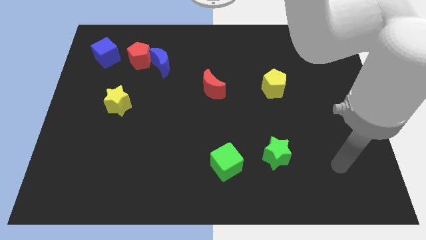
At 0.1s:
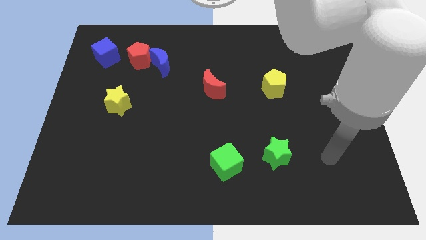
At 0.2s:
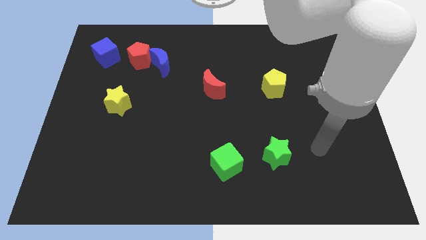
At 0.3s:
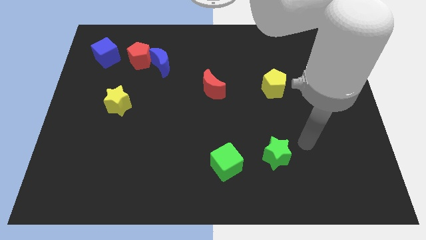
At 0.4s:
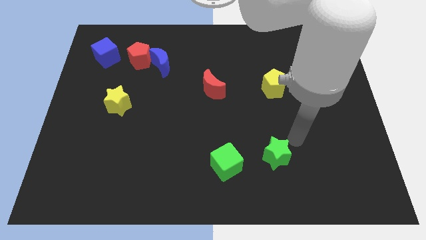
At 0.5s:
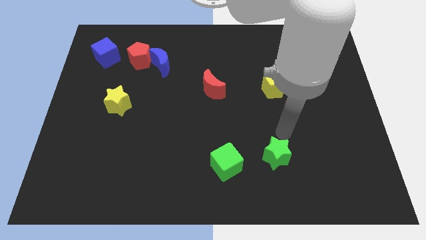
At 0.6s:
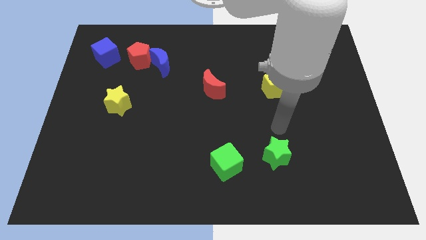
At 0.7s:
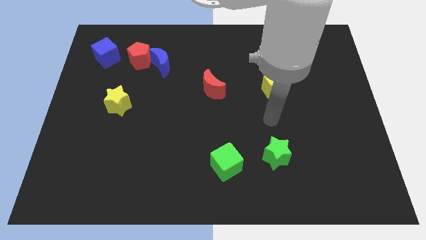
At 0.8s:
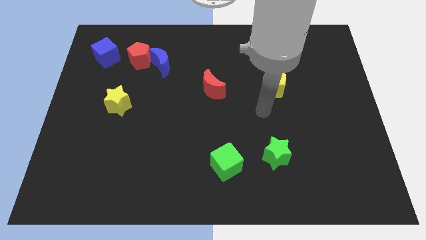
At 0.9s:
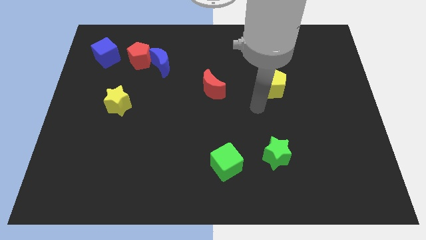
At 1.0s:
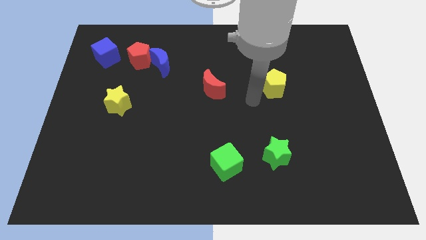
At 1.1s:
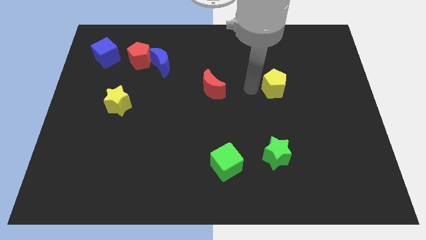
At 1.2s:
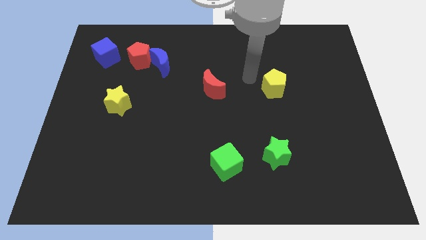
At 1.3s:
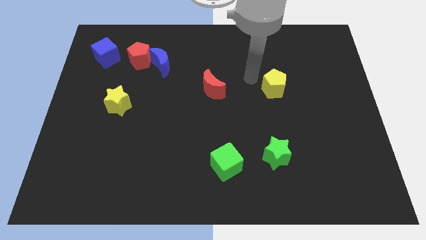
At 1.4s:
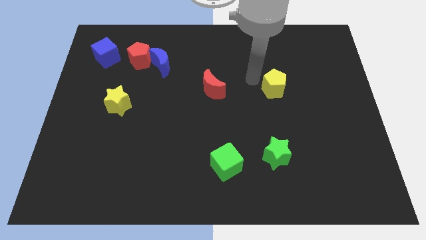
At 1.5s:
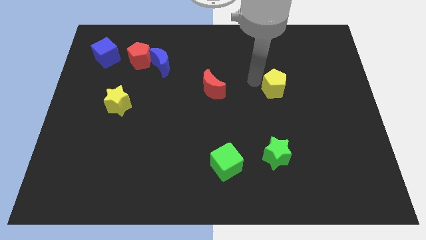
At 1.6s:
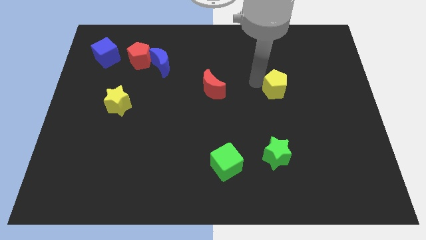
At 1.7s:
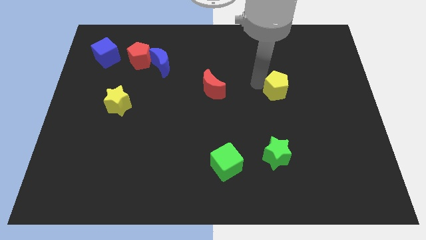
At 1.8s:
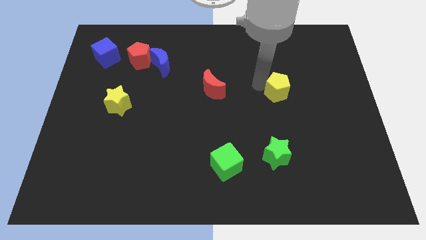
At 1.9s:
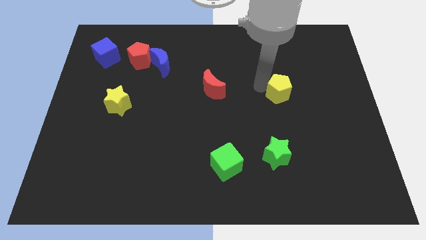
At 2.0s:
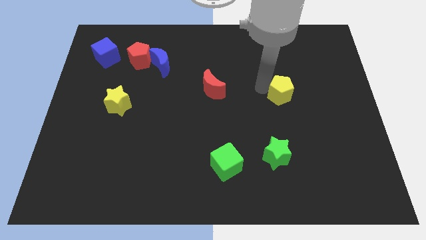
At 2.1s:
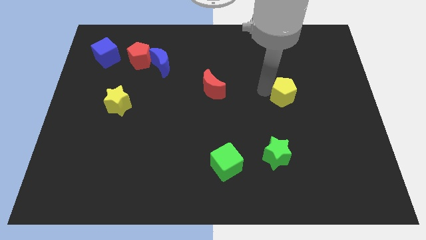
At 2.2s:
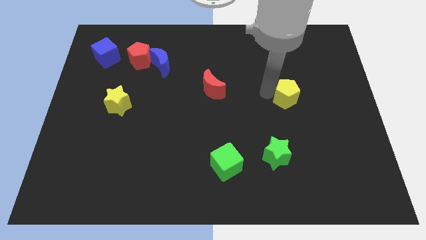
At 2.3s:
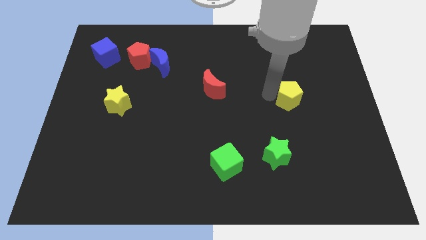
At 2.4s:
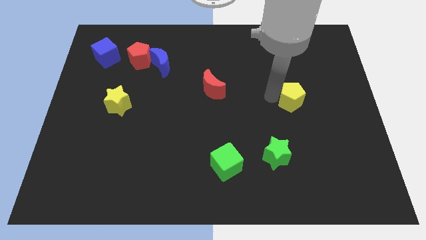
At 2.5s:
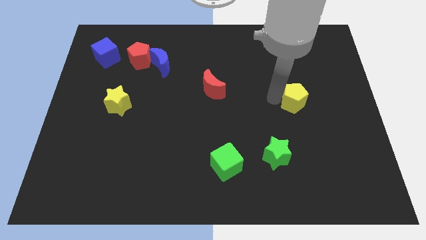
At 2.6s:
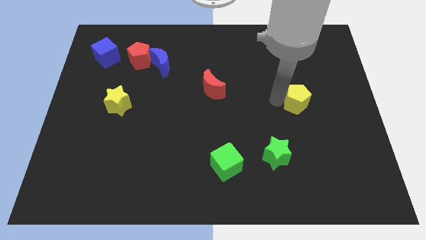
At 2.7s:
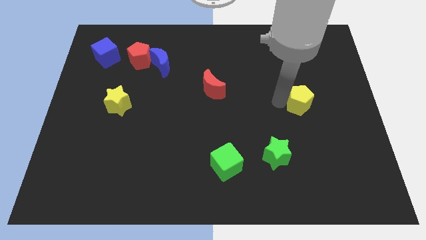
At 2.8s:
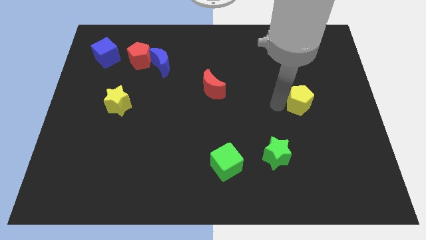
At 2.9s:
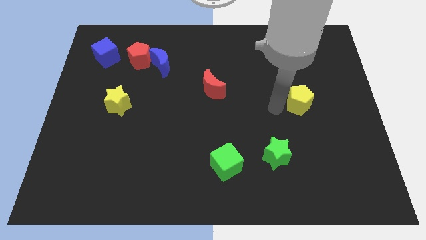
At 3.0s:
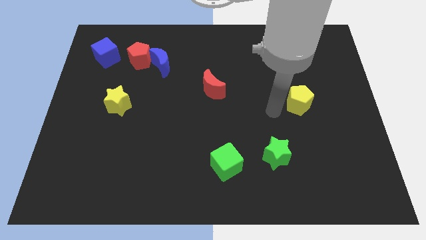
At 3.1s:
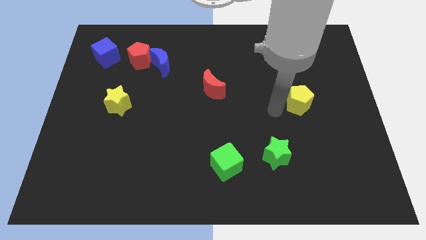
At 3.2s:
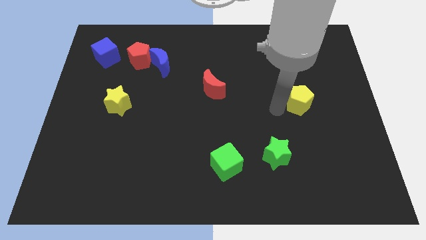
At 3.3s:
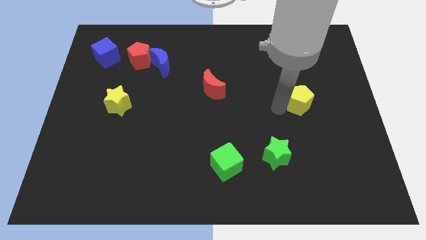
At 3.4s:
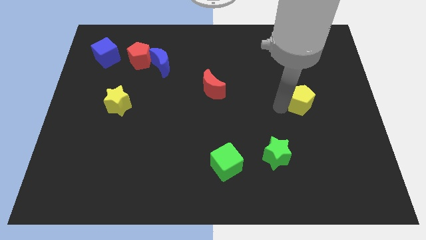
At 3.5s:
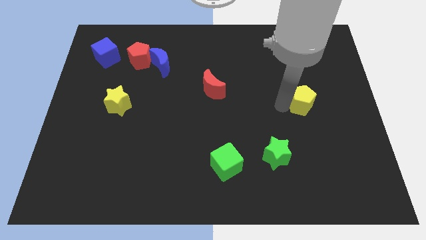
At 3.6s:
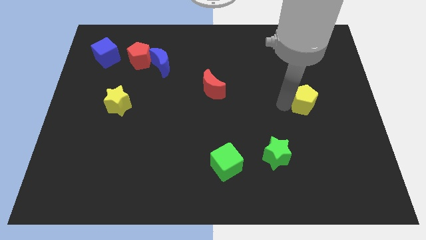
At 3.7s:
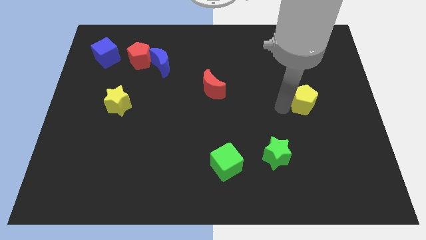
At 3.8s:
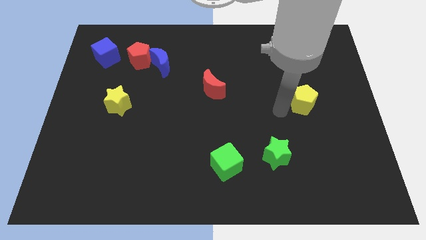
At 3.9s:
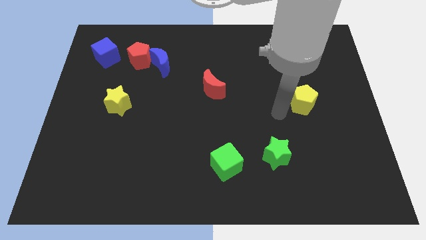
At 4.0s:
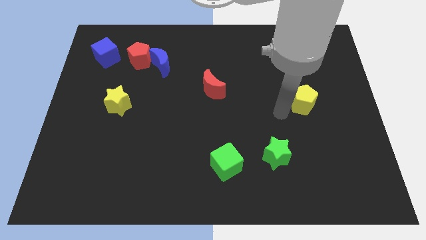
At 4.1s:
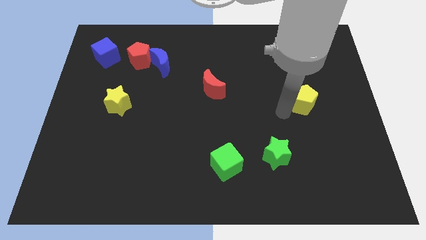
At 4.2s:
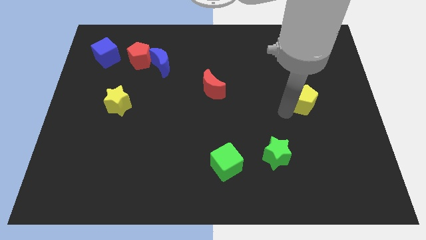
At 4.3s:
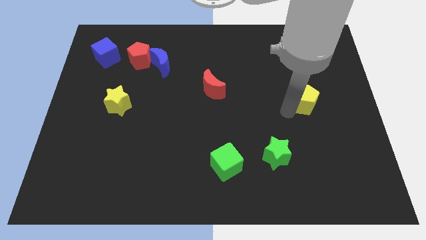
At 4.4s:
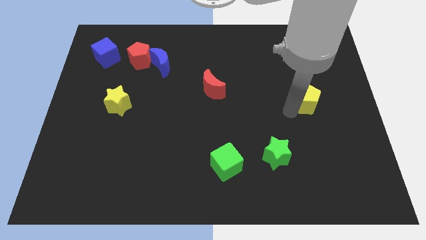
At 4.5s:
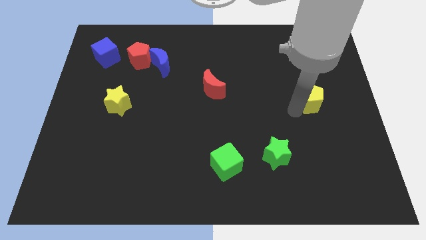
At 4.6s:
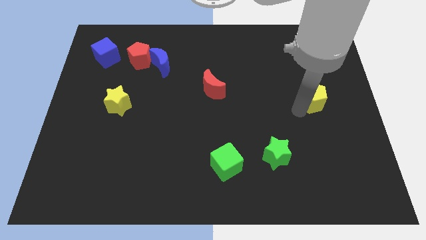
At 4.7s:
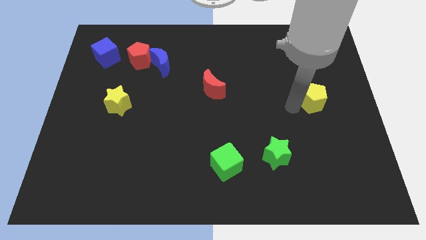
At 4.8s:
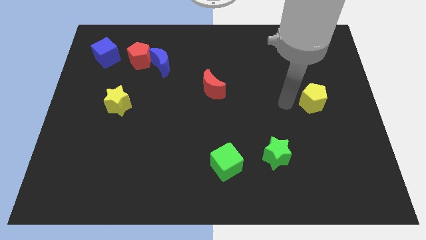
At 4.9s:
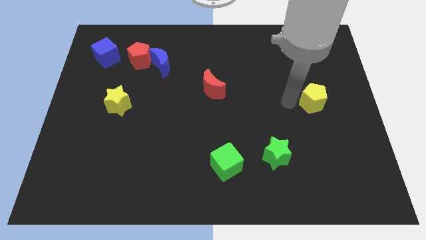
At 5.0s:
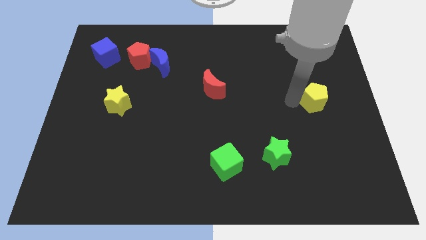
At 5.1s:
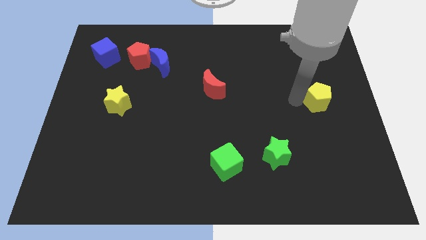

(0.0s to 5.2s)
move the yellow pentagon to the center right

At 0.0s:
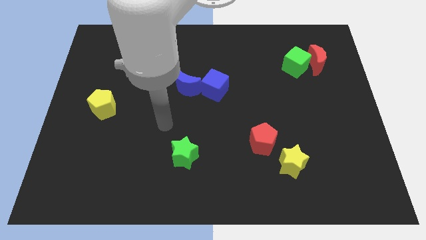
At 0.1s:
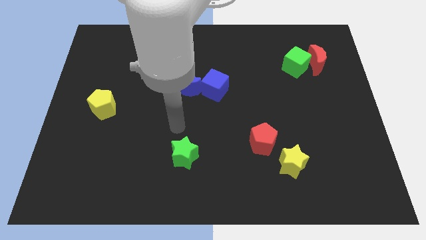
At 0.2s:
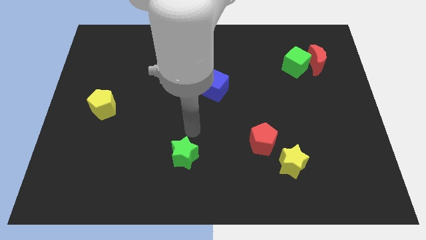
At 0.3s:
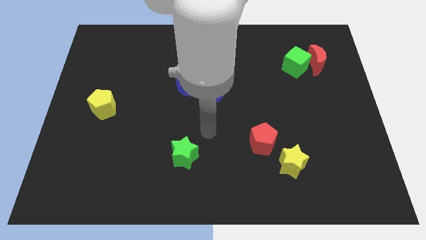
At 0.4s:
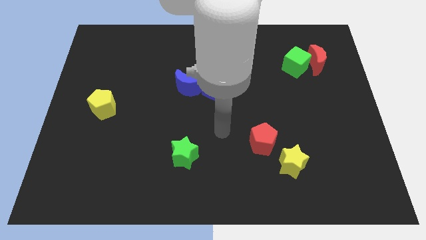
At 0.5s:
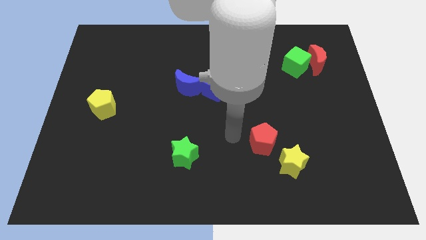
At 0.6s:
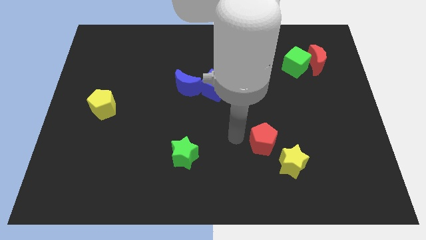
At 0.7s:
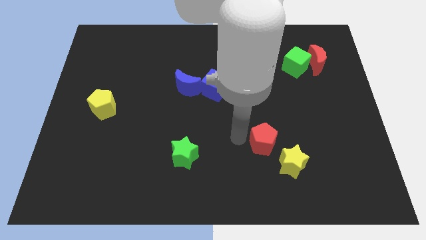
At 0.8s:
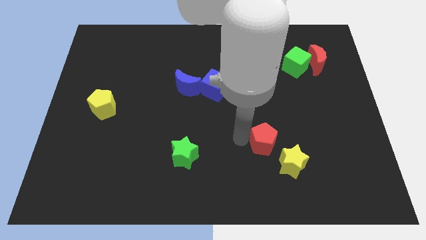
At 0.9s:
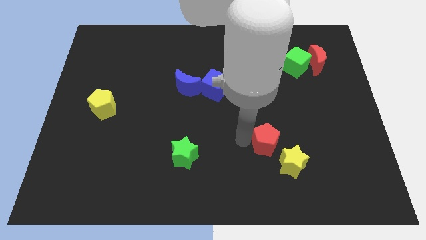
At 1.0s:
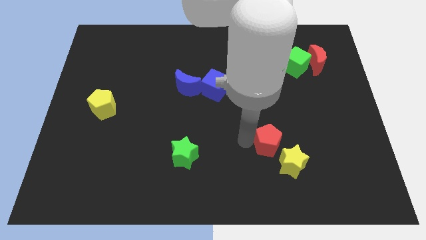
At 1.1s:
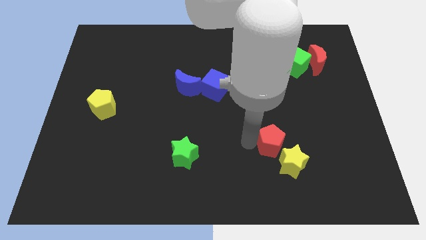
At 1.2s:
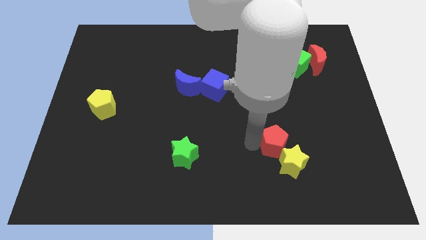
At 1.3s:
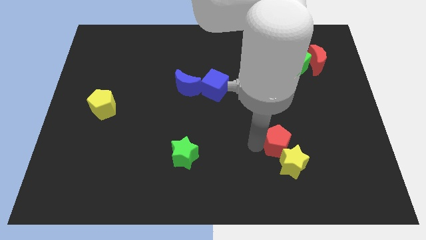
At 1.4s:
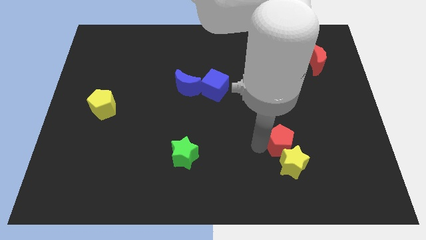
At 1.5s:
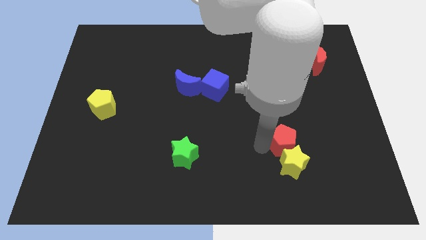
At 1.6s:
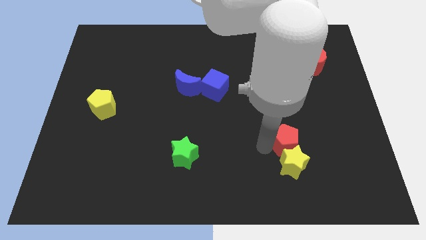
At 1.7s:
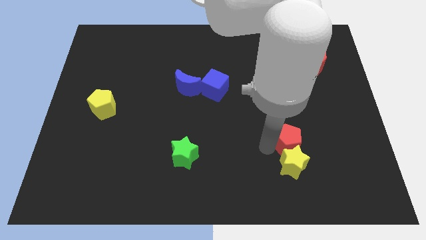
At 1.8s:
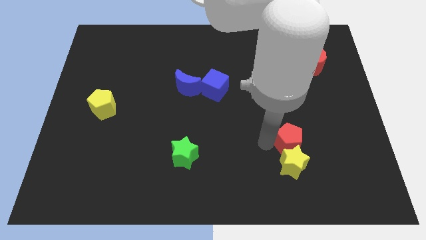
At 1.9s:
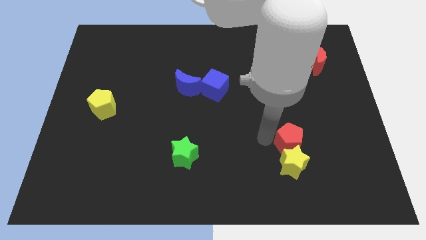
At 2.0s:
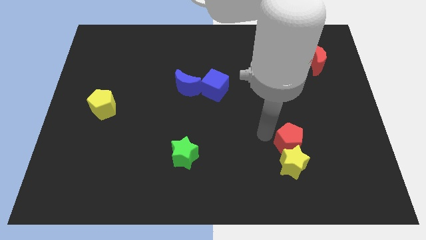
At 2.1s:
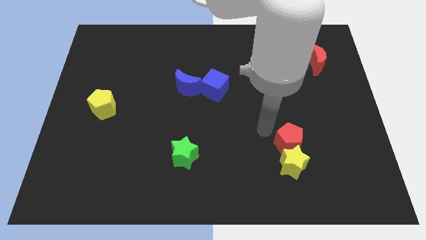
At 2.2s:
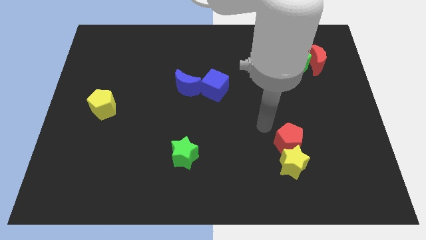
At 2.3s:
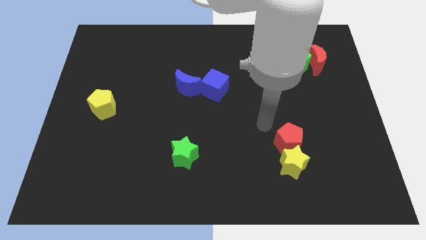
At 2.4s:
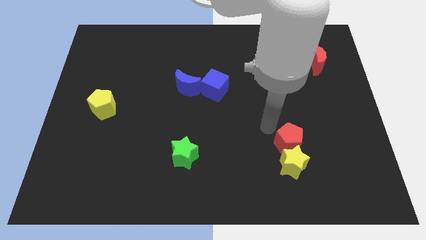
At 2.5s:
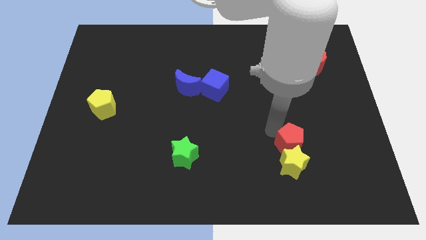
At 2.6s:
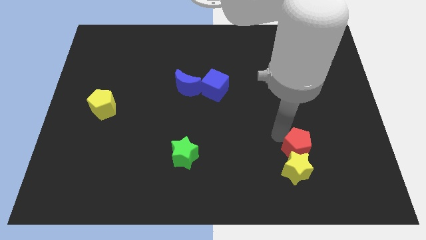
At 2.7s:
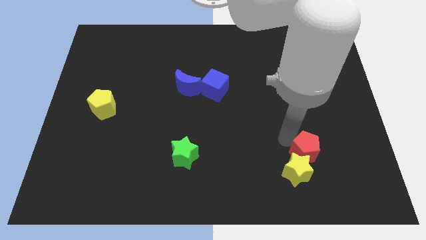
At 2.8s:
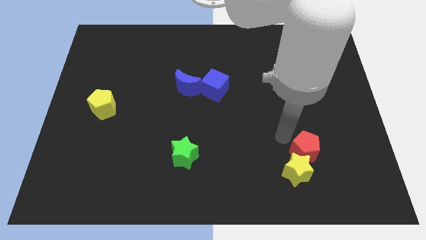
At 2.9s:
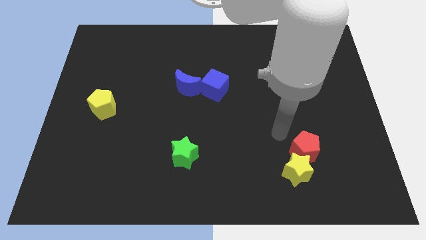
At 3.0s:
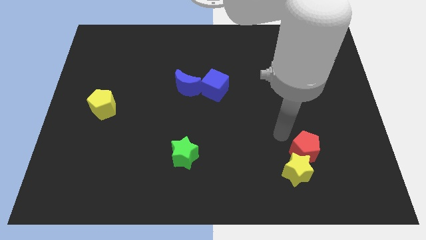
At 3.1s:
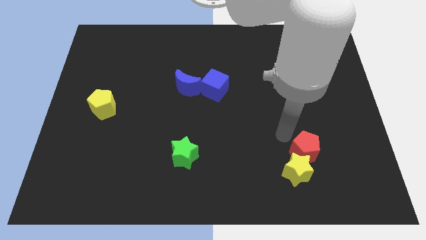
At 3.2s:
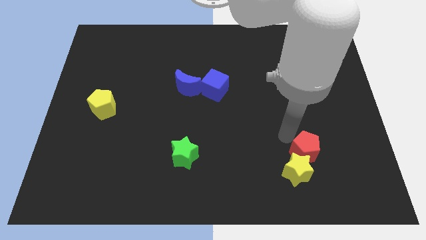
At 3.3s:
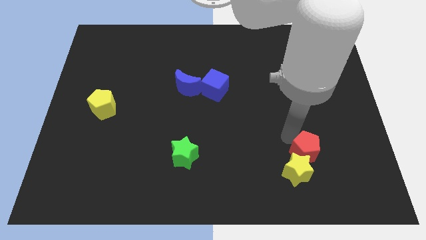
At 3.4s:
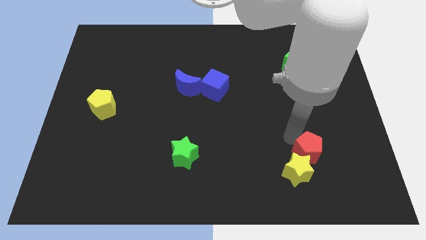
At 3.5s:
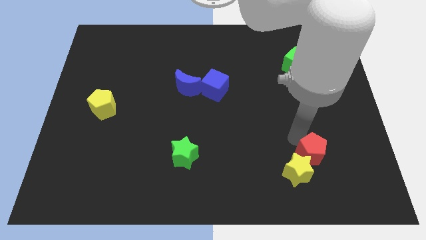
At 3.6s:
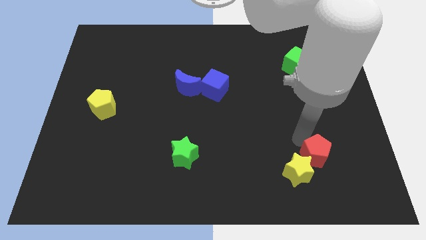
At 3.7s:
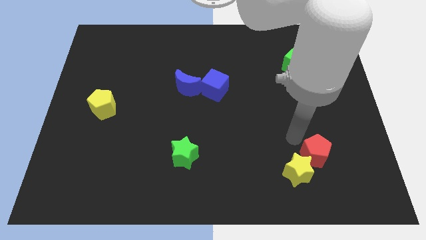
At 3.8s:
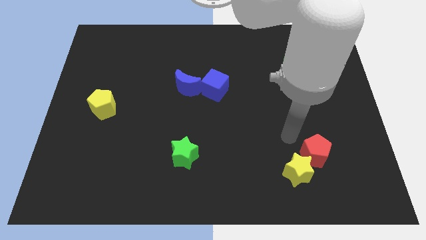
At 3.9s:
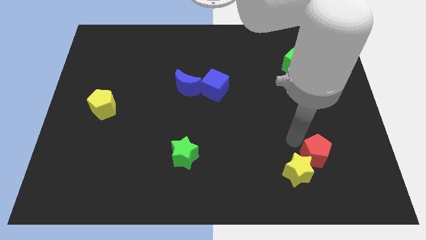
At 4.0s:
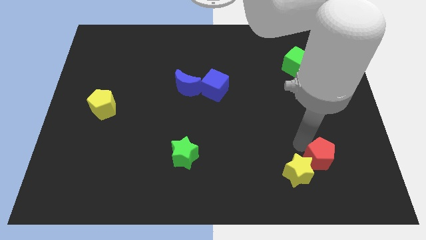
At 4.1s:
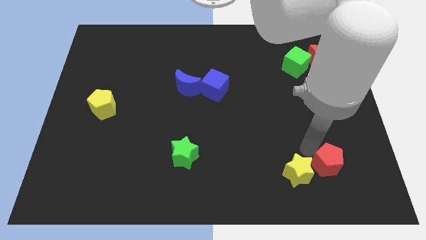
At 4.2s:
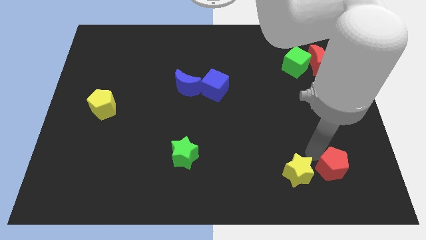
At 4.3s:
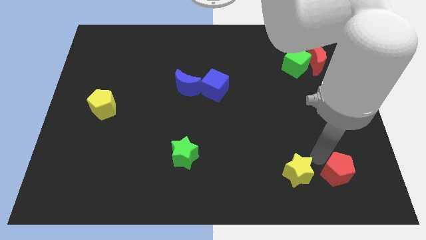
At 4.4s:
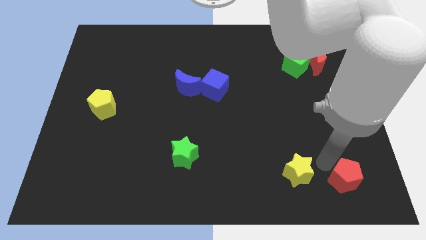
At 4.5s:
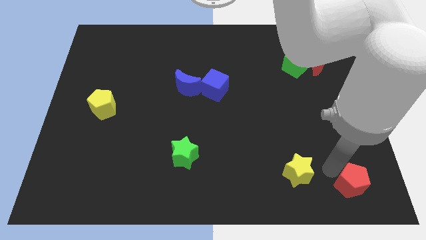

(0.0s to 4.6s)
push the red pentagon to the lower right corner
